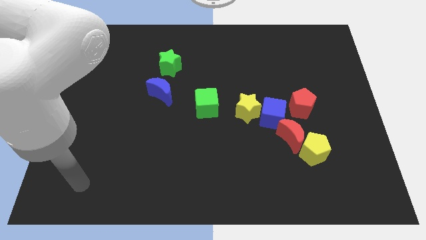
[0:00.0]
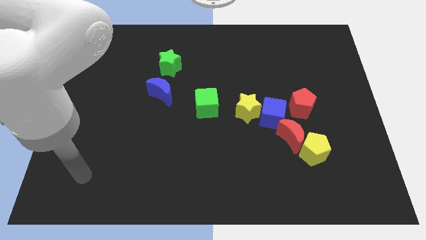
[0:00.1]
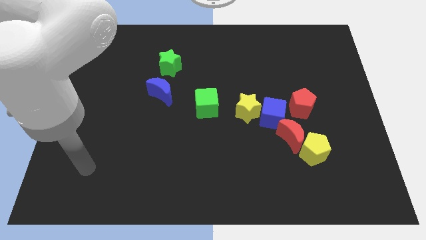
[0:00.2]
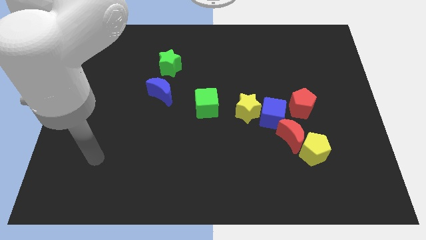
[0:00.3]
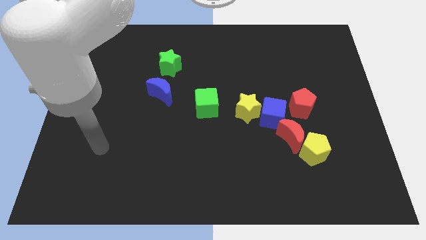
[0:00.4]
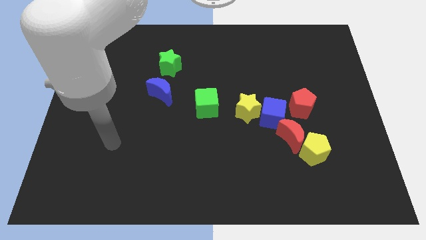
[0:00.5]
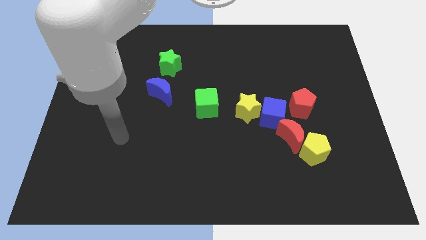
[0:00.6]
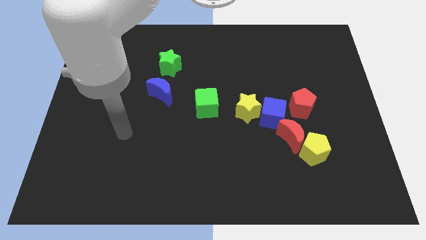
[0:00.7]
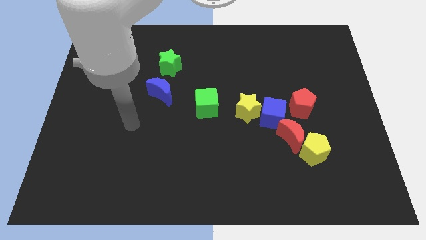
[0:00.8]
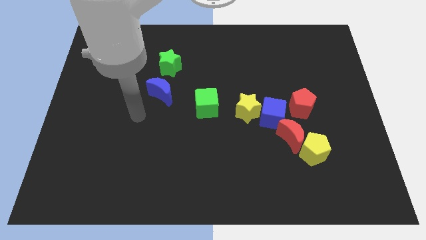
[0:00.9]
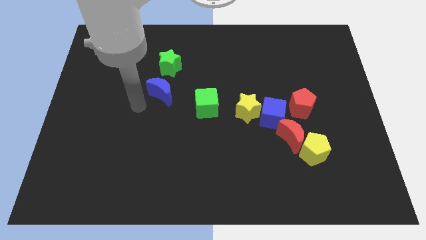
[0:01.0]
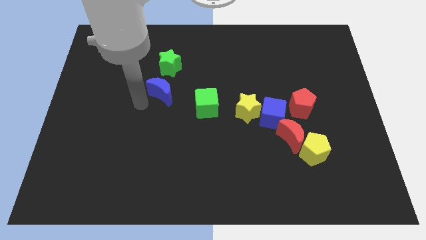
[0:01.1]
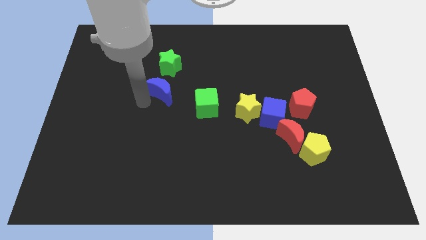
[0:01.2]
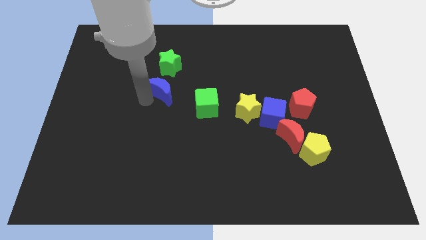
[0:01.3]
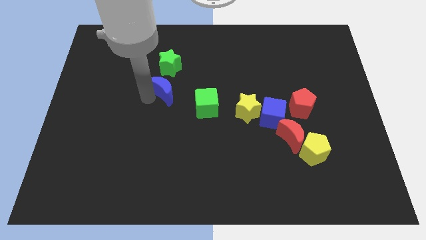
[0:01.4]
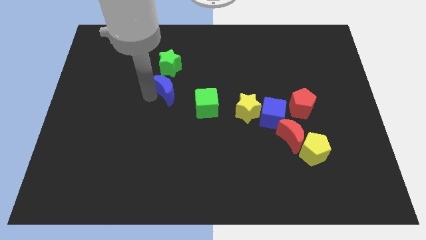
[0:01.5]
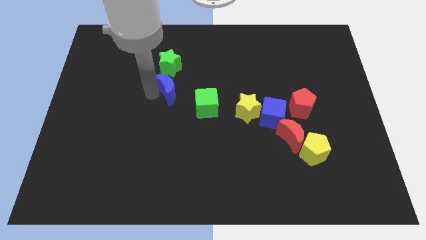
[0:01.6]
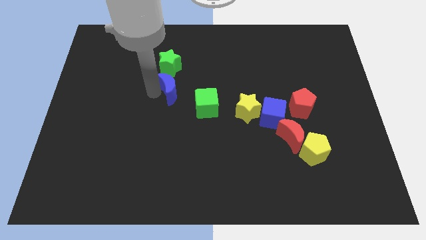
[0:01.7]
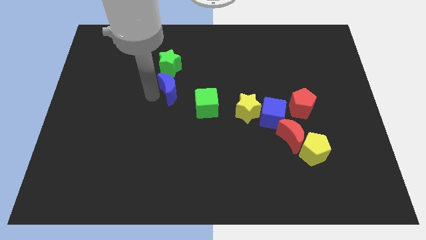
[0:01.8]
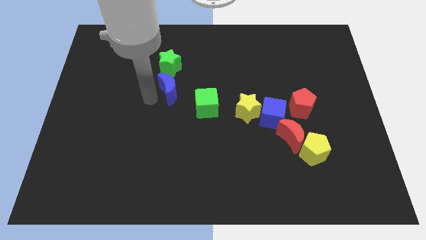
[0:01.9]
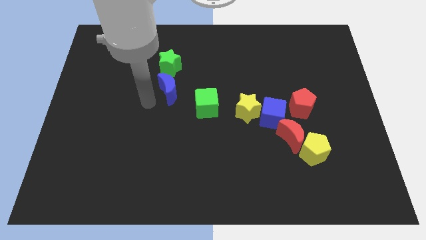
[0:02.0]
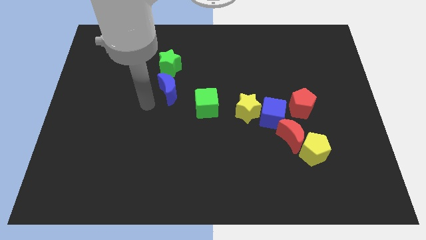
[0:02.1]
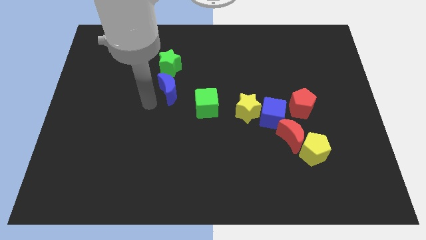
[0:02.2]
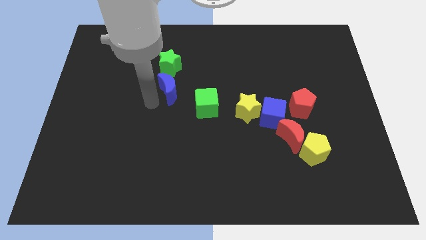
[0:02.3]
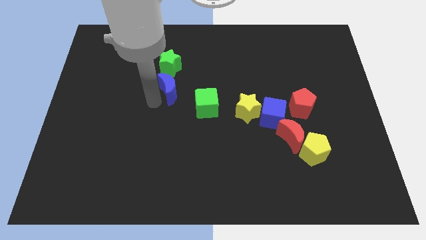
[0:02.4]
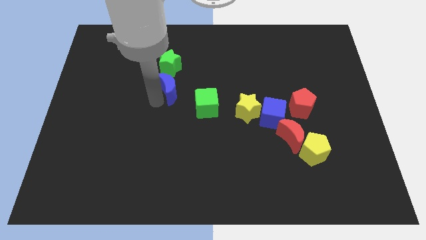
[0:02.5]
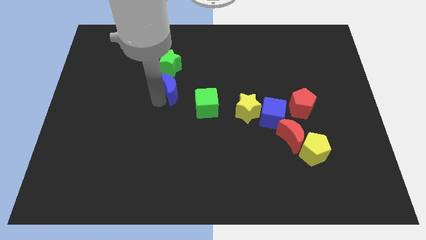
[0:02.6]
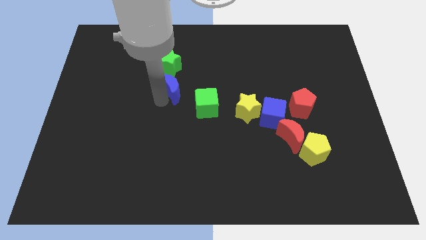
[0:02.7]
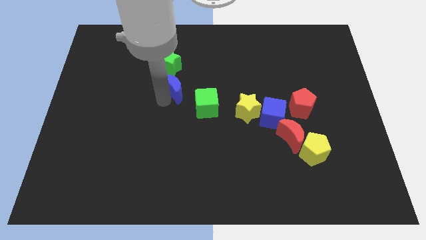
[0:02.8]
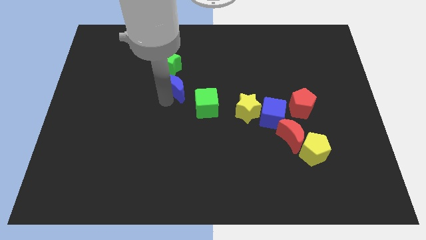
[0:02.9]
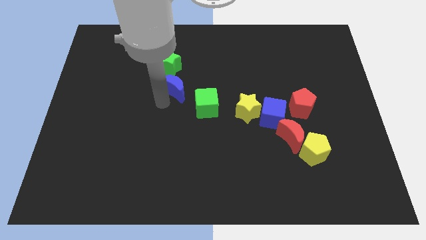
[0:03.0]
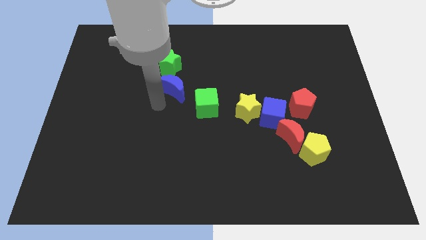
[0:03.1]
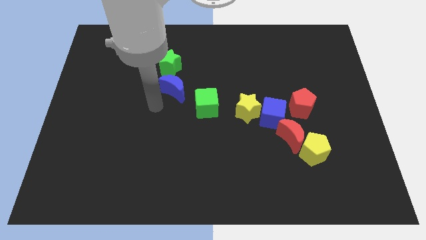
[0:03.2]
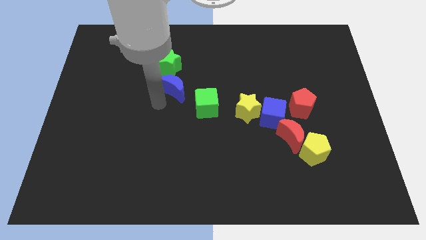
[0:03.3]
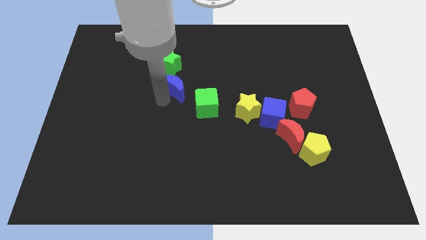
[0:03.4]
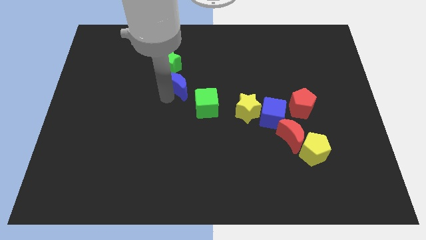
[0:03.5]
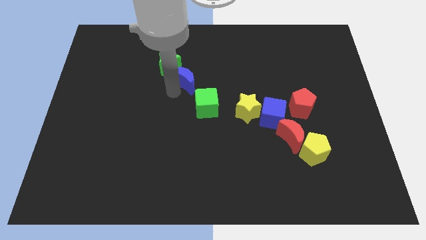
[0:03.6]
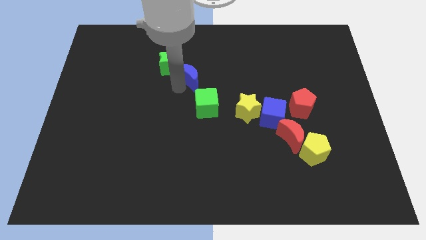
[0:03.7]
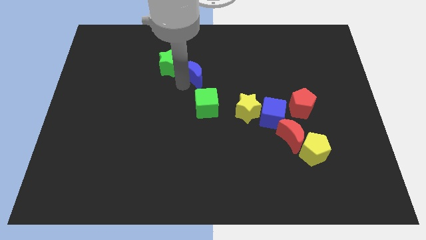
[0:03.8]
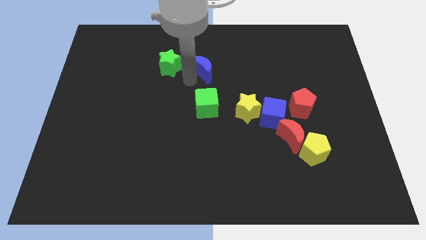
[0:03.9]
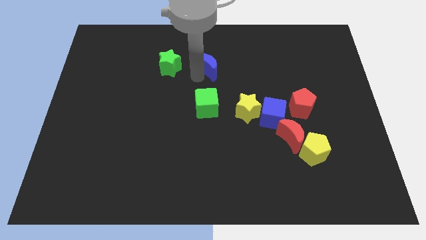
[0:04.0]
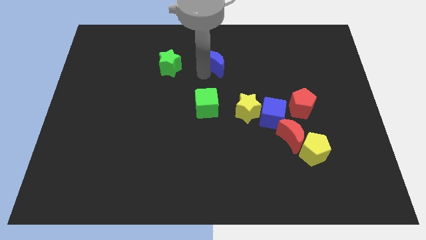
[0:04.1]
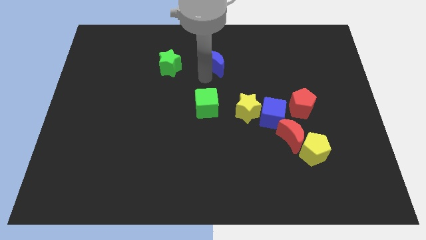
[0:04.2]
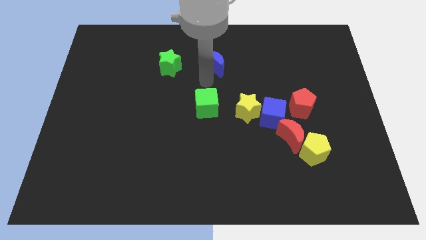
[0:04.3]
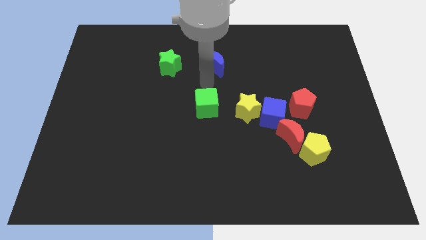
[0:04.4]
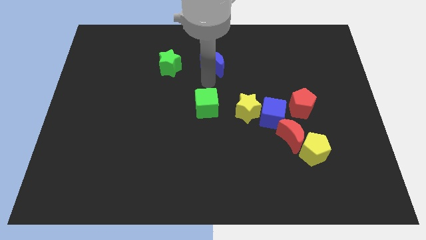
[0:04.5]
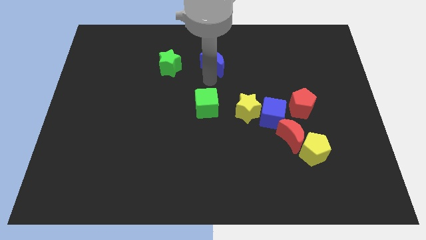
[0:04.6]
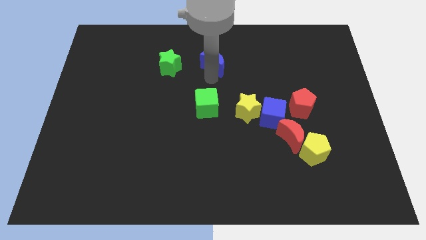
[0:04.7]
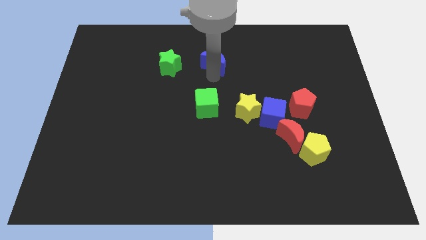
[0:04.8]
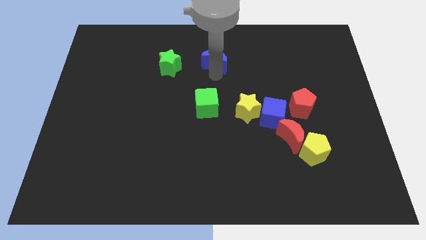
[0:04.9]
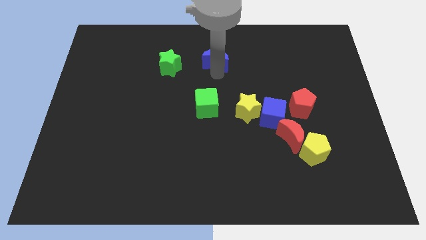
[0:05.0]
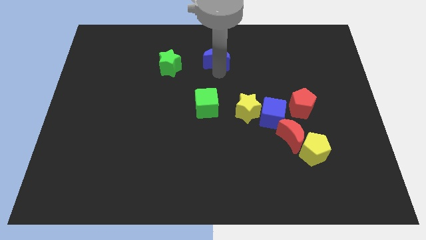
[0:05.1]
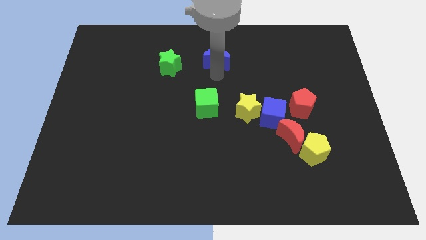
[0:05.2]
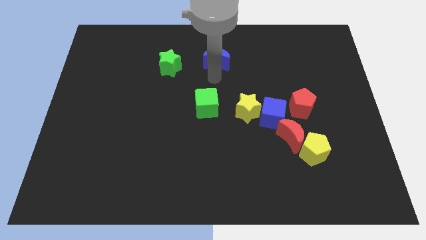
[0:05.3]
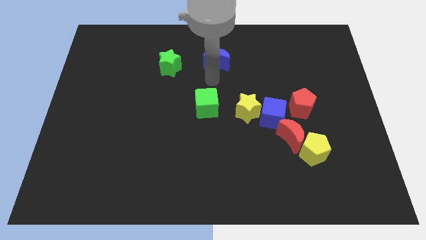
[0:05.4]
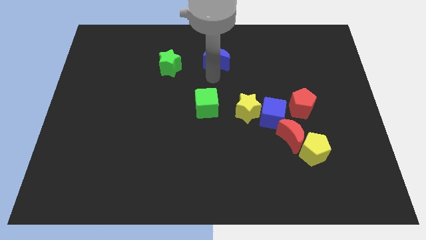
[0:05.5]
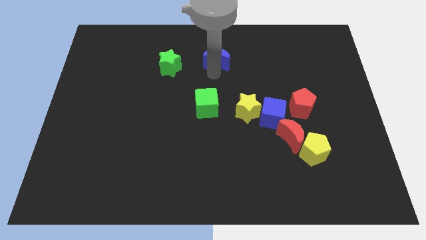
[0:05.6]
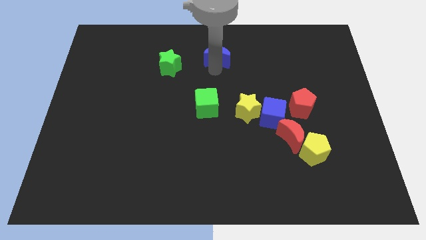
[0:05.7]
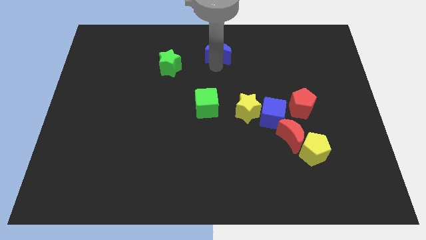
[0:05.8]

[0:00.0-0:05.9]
slide the blue moon to the top side
